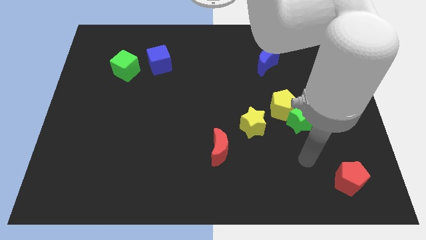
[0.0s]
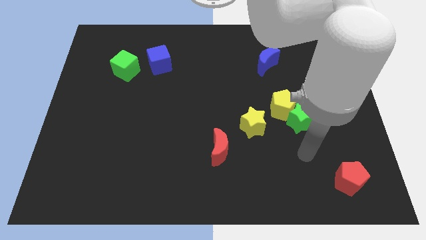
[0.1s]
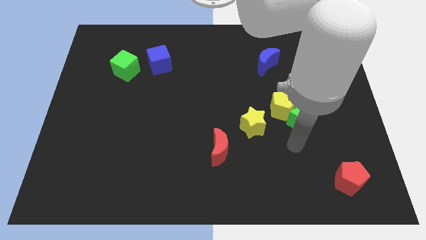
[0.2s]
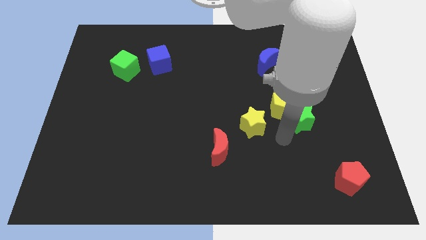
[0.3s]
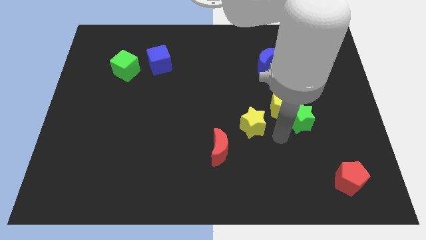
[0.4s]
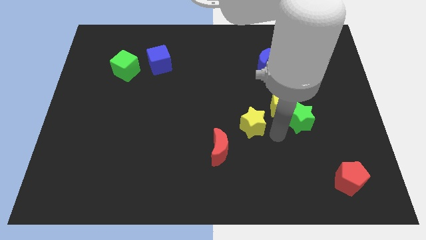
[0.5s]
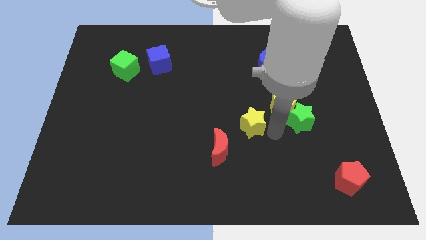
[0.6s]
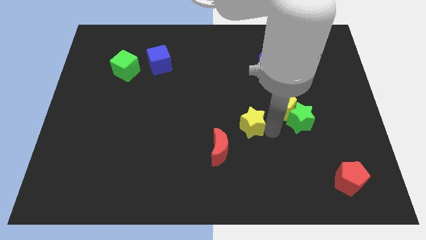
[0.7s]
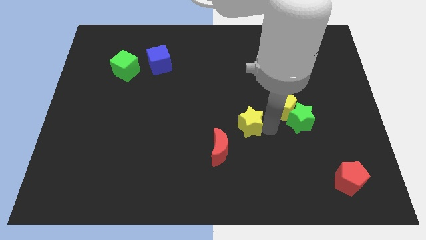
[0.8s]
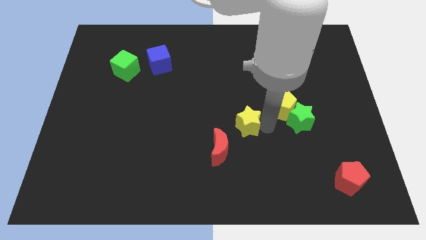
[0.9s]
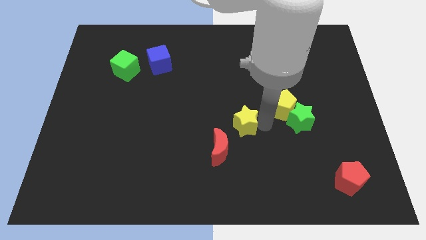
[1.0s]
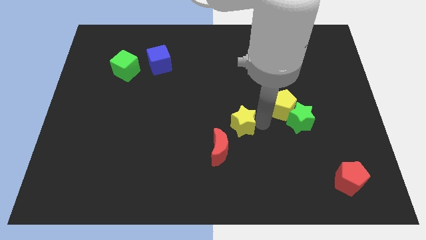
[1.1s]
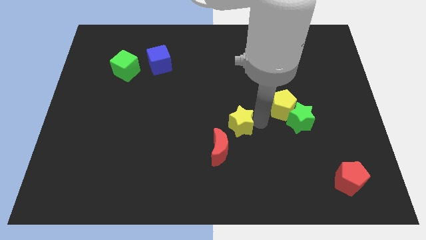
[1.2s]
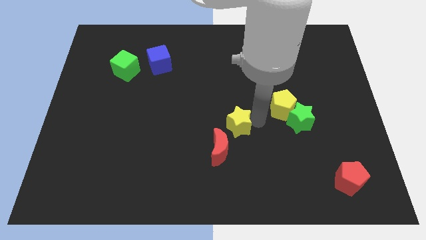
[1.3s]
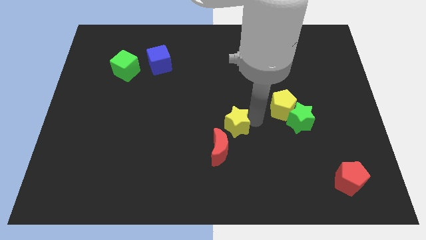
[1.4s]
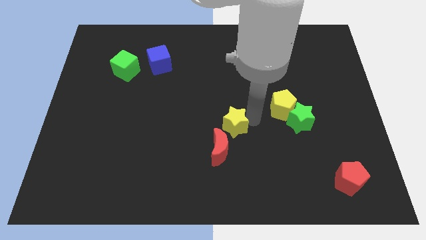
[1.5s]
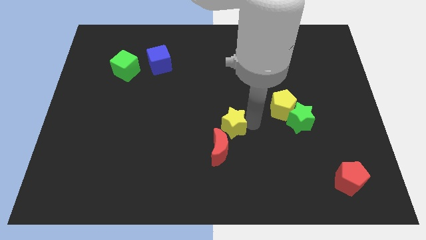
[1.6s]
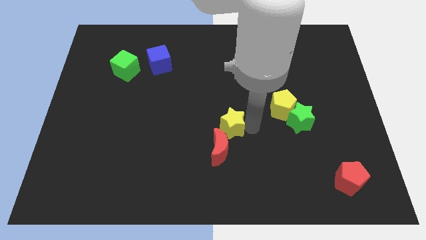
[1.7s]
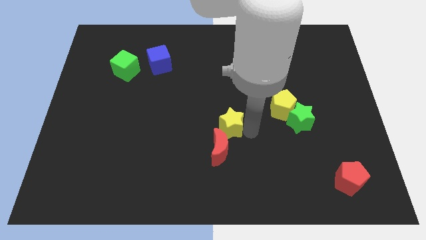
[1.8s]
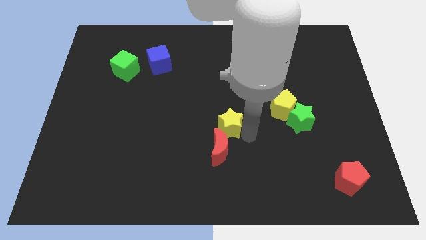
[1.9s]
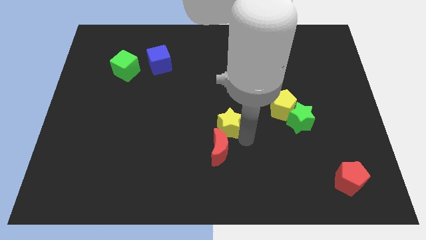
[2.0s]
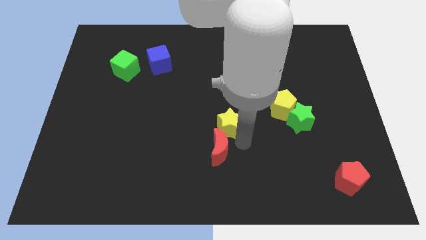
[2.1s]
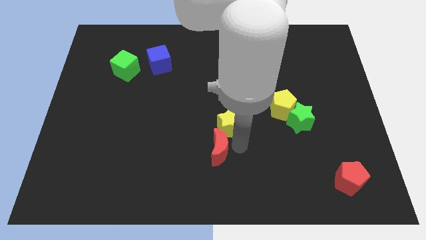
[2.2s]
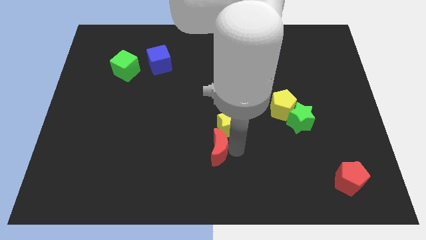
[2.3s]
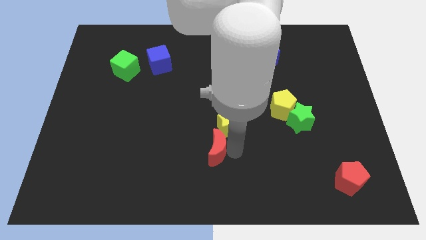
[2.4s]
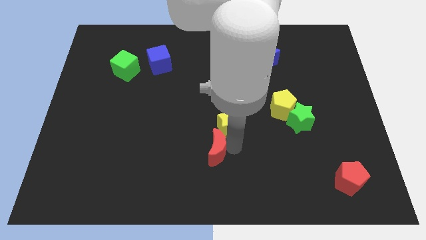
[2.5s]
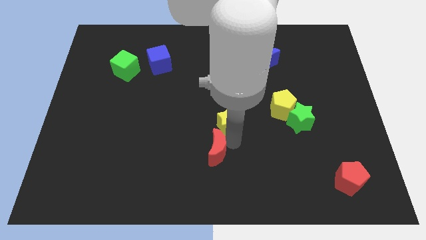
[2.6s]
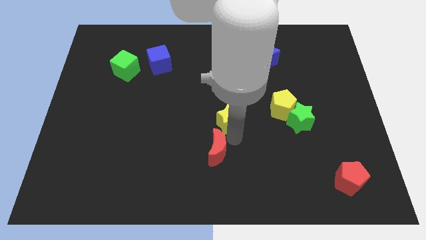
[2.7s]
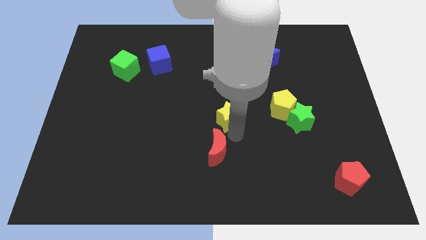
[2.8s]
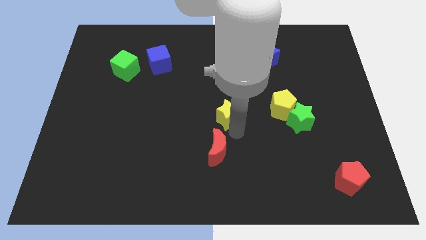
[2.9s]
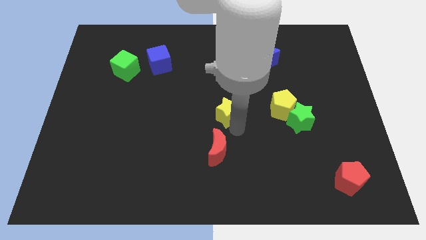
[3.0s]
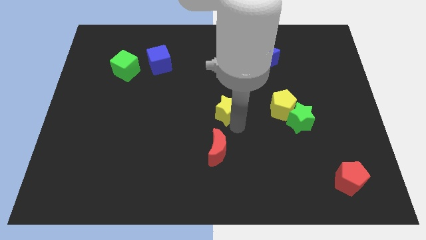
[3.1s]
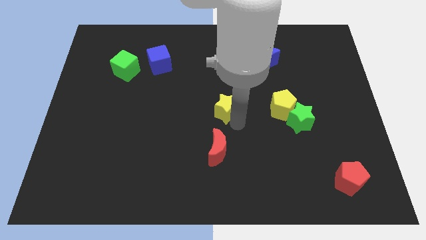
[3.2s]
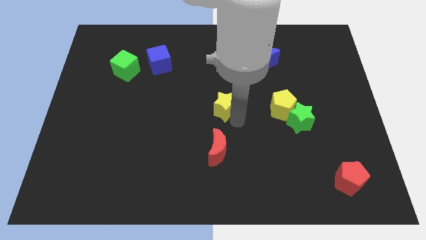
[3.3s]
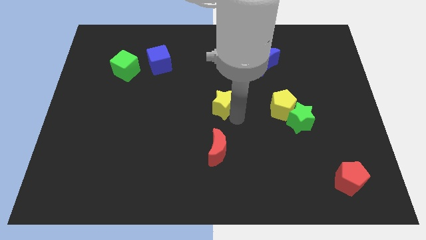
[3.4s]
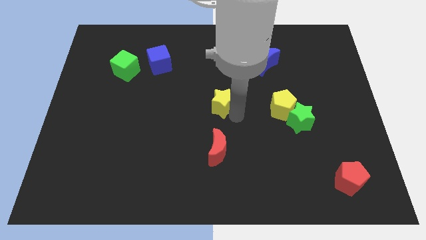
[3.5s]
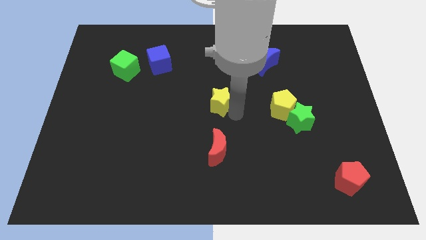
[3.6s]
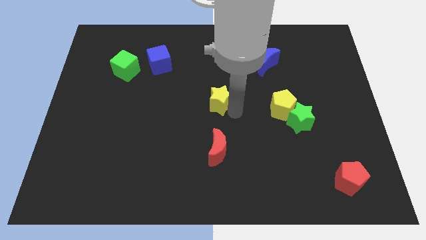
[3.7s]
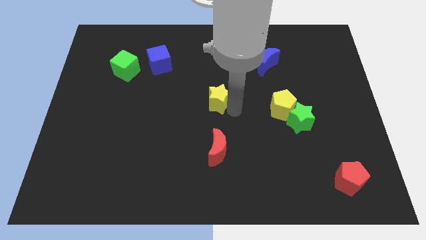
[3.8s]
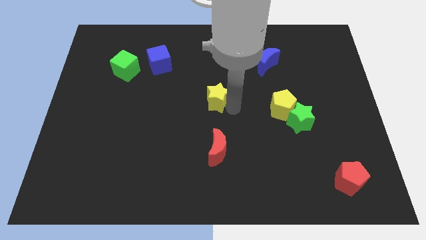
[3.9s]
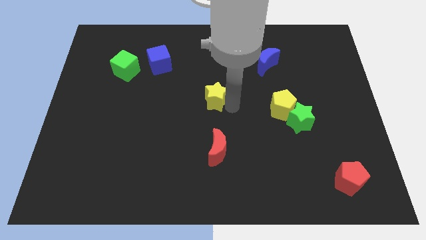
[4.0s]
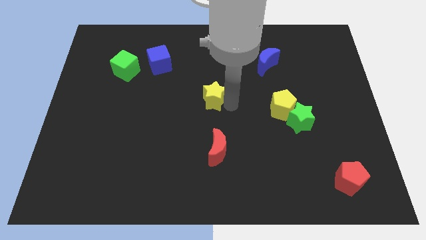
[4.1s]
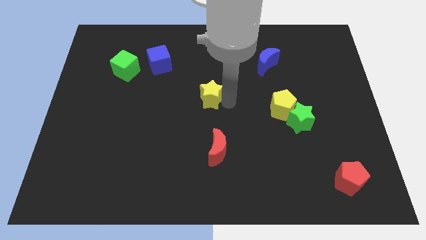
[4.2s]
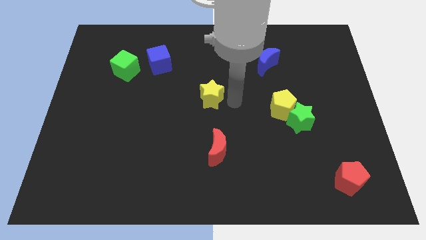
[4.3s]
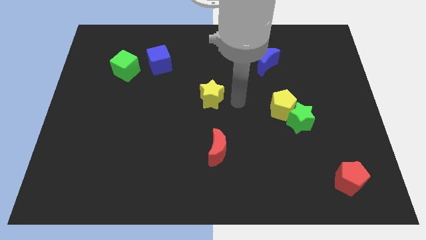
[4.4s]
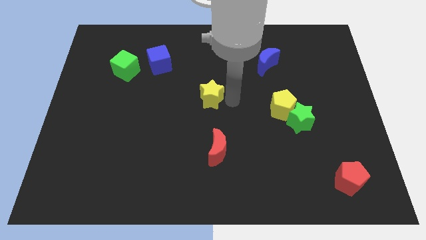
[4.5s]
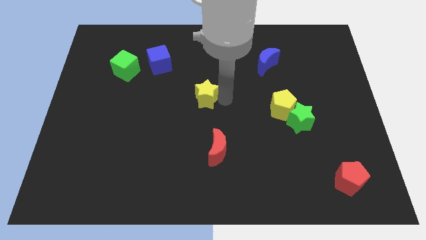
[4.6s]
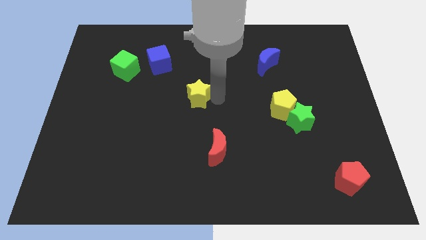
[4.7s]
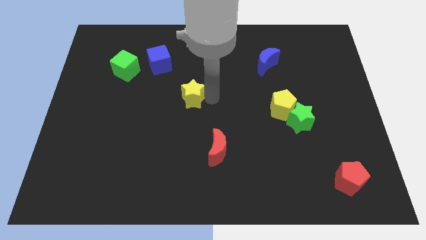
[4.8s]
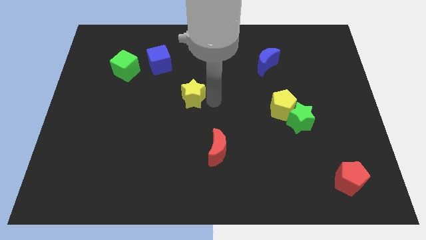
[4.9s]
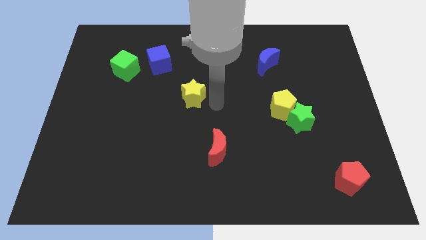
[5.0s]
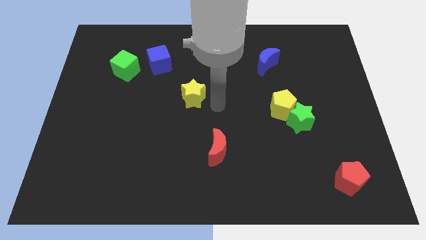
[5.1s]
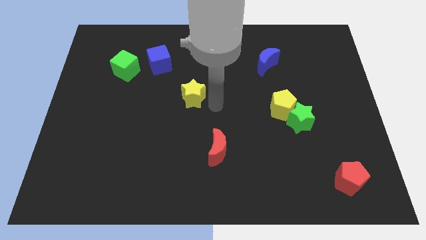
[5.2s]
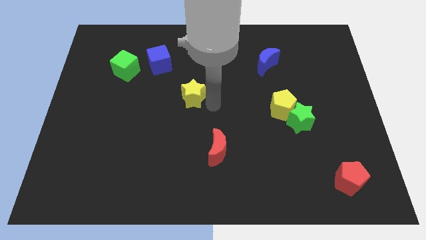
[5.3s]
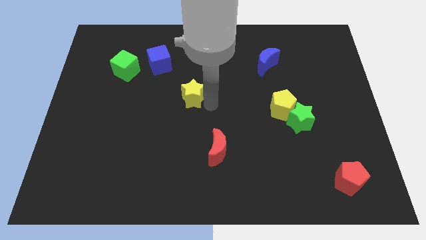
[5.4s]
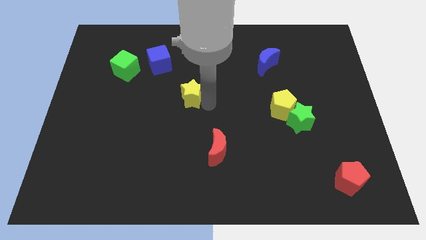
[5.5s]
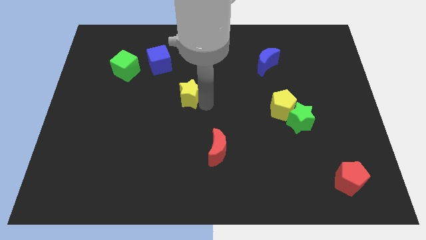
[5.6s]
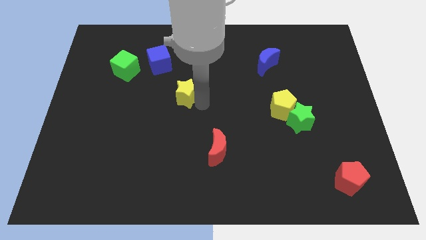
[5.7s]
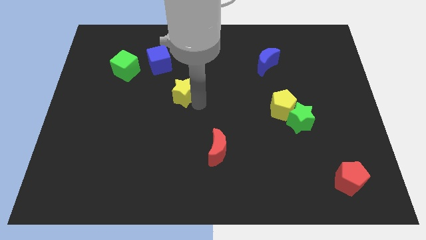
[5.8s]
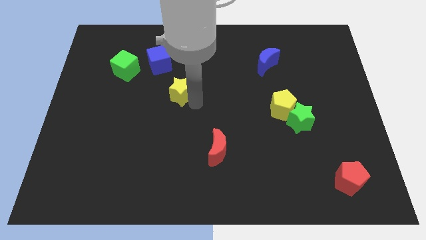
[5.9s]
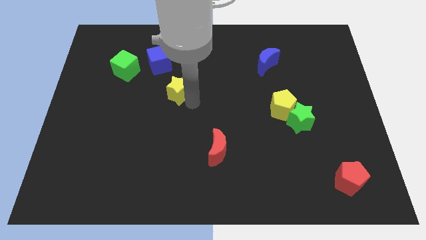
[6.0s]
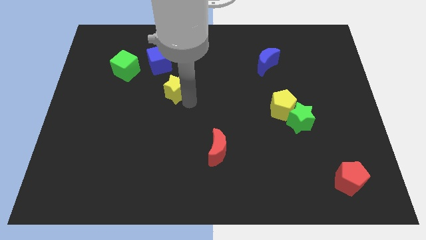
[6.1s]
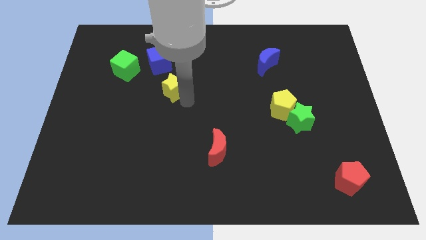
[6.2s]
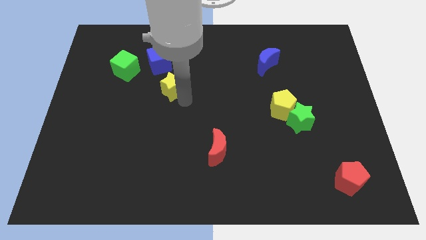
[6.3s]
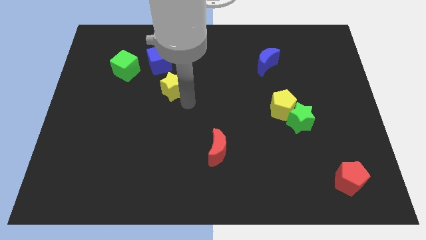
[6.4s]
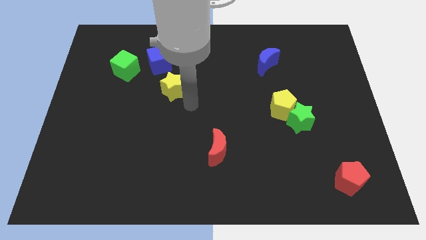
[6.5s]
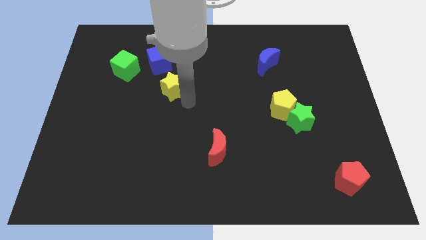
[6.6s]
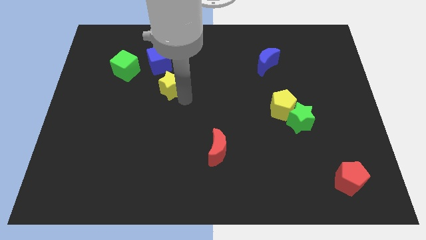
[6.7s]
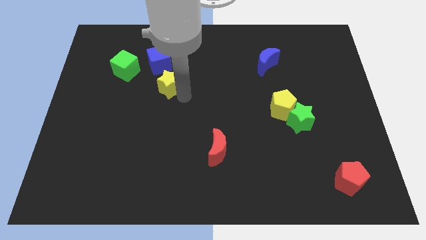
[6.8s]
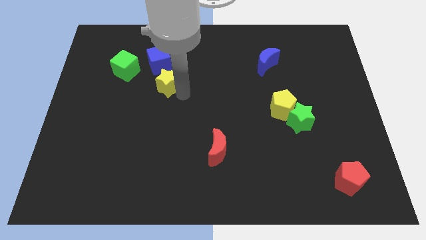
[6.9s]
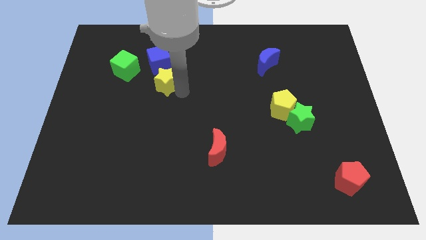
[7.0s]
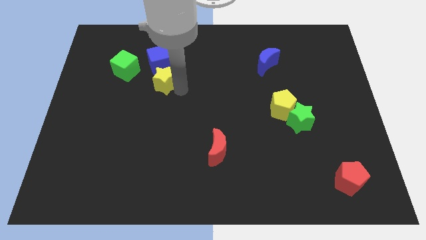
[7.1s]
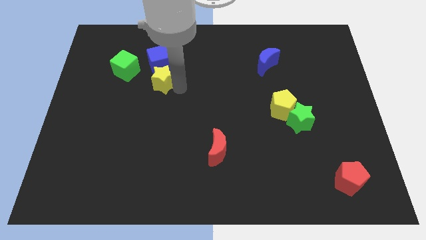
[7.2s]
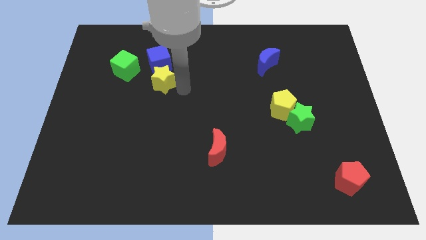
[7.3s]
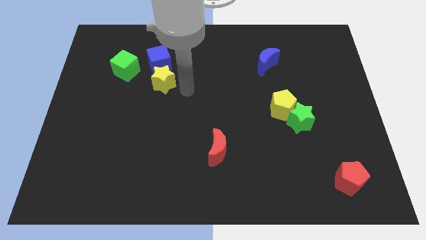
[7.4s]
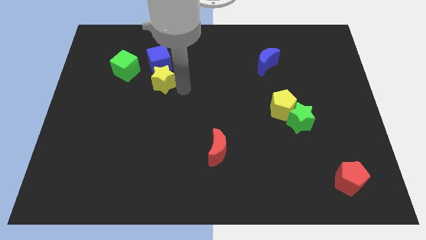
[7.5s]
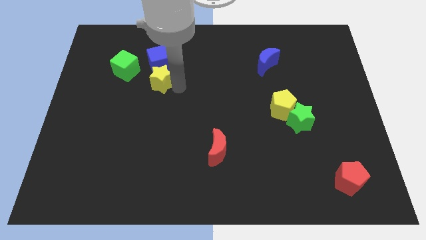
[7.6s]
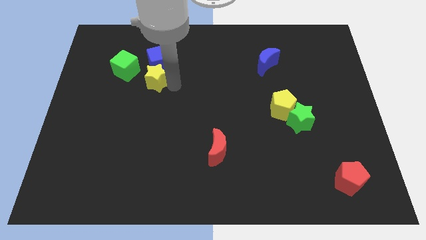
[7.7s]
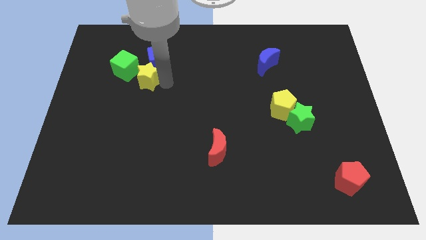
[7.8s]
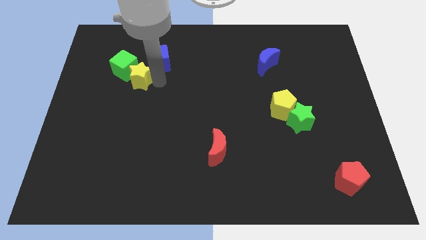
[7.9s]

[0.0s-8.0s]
move the yellow star towards the green cube
